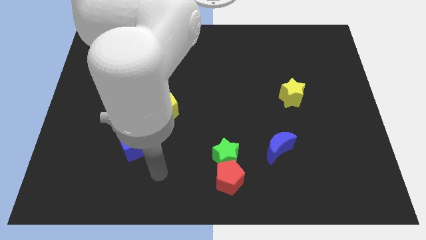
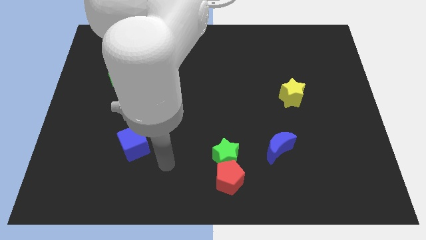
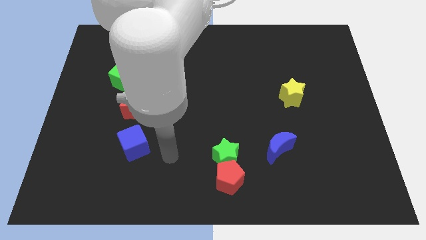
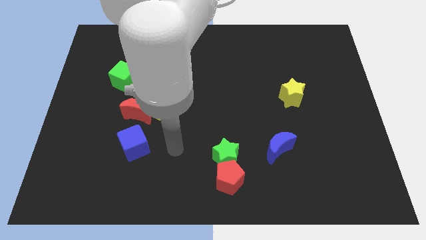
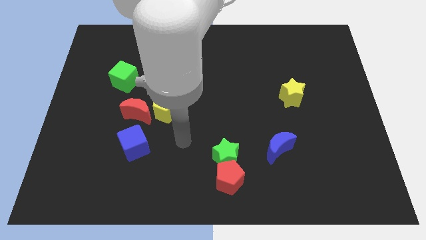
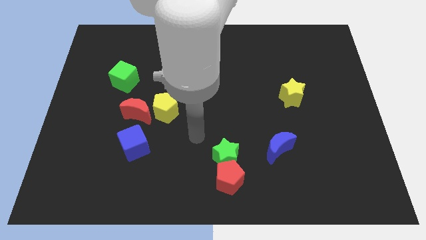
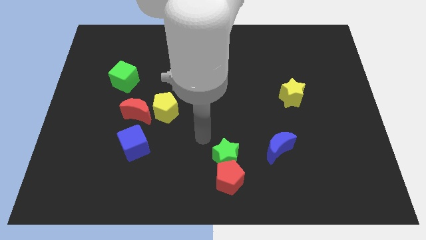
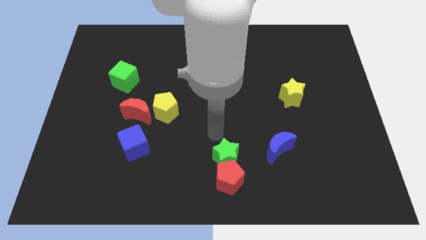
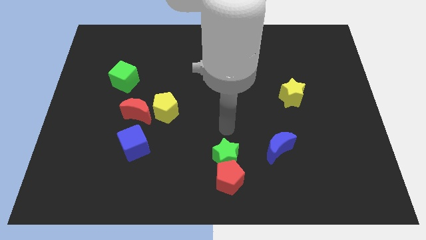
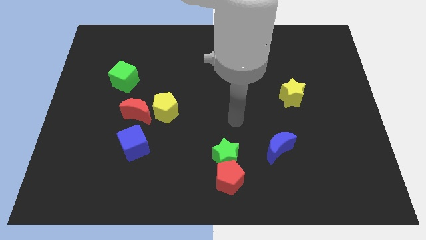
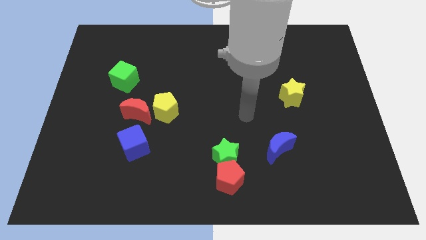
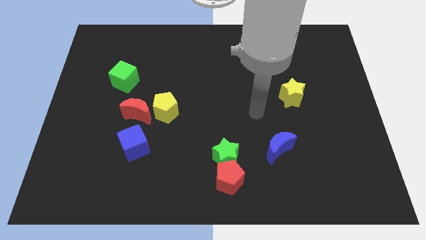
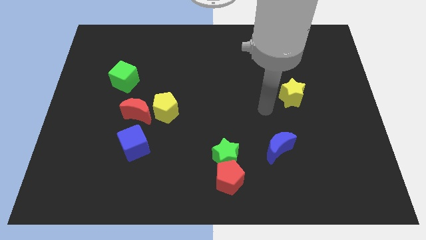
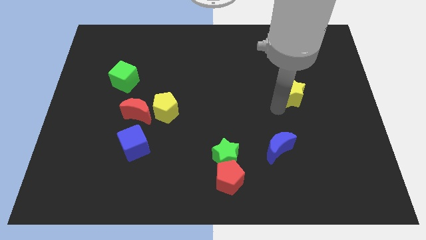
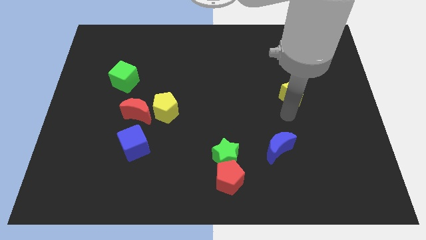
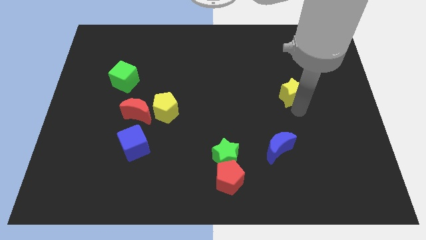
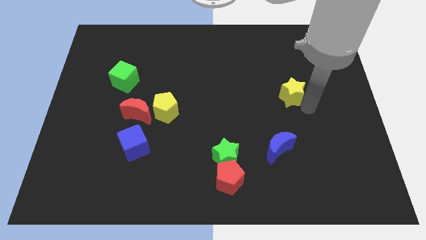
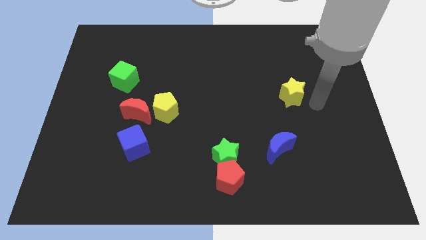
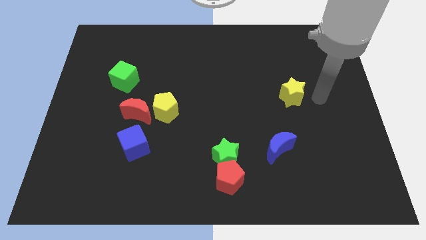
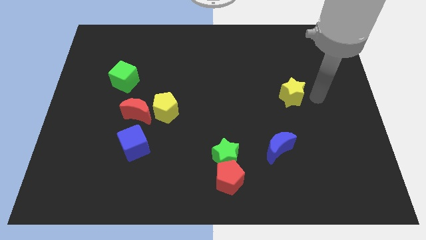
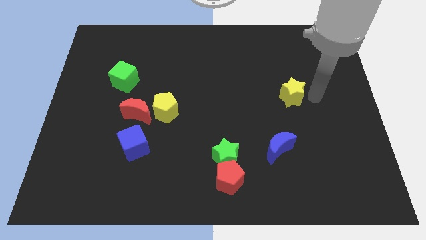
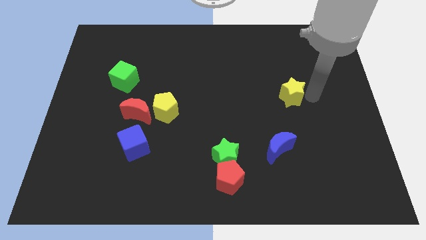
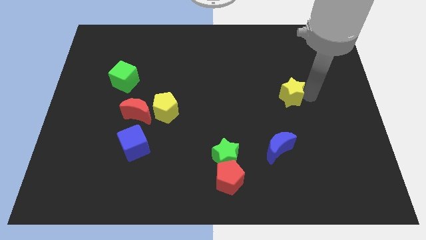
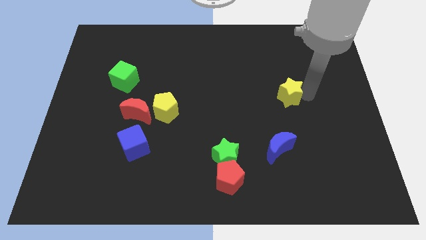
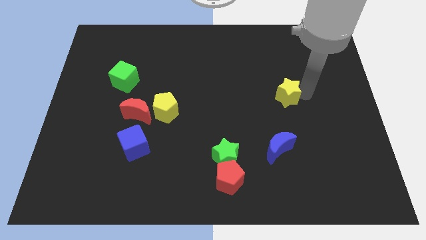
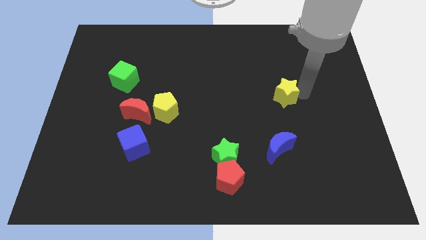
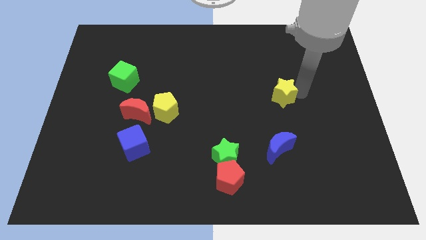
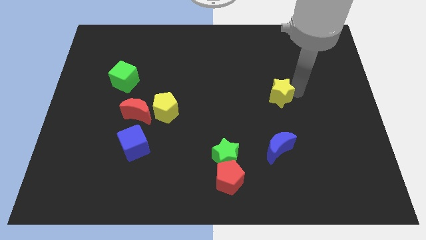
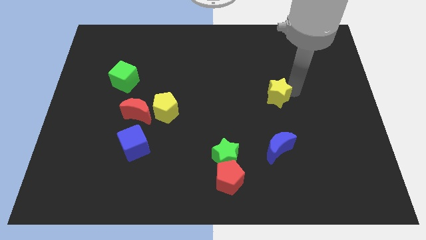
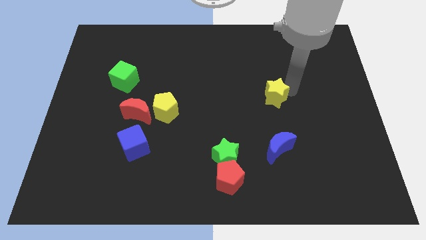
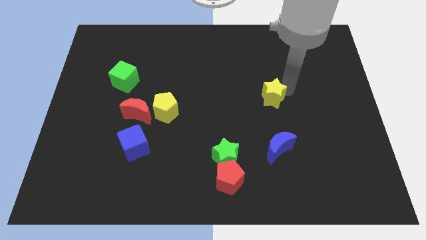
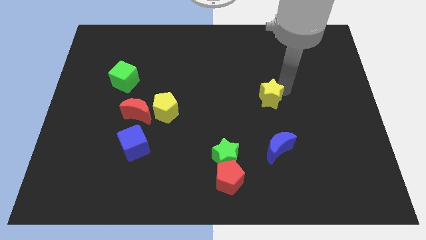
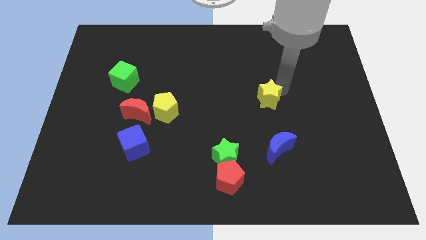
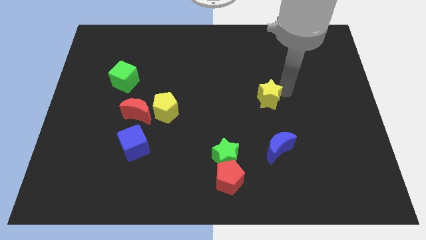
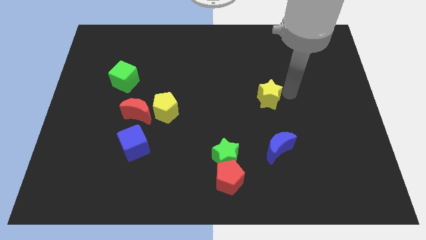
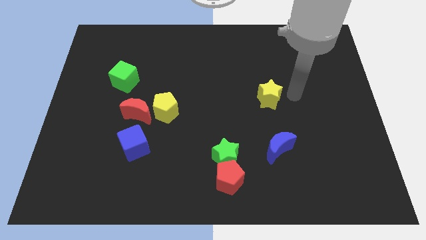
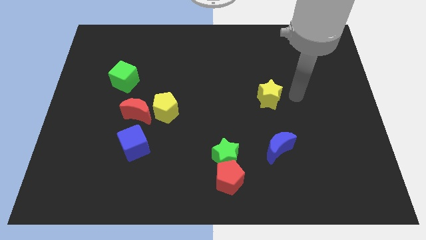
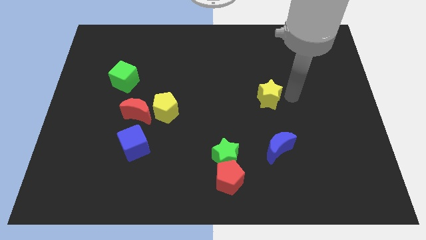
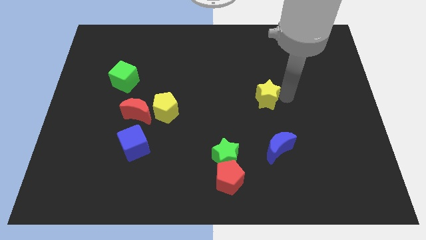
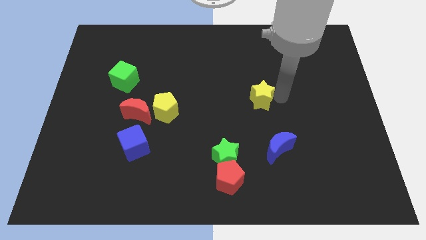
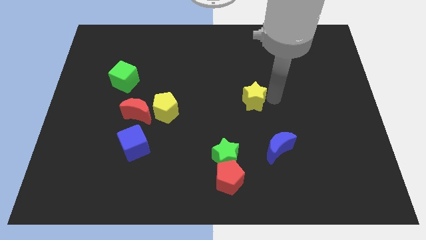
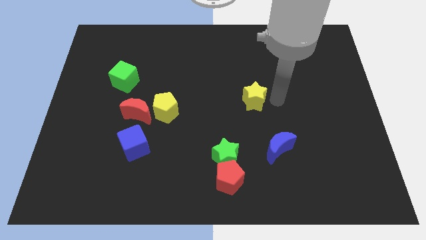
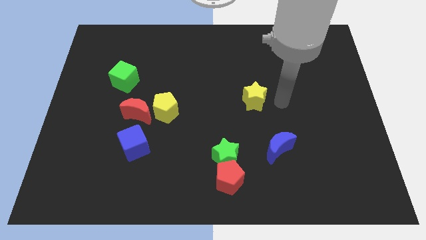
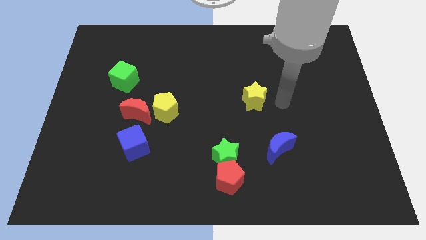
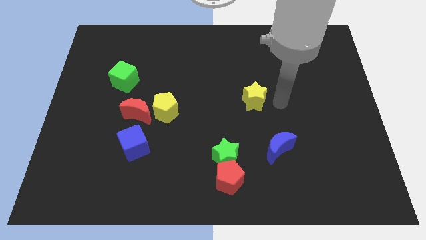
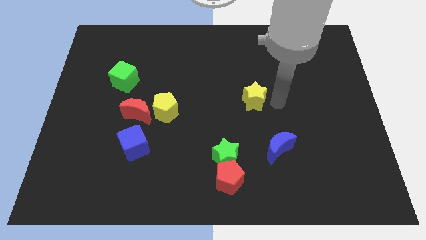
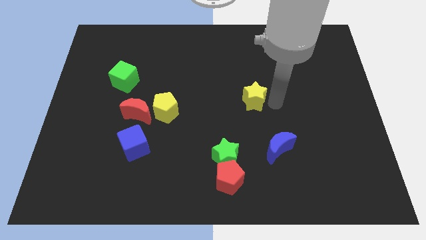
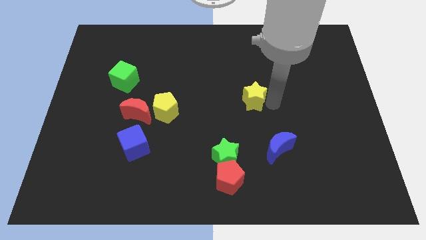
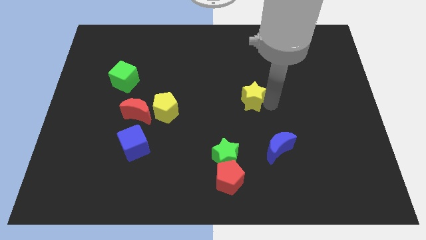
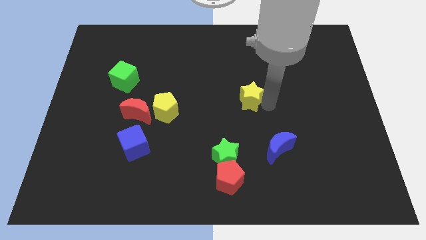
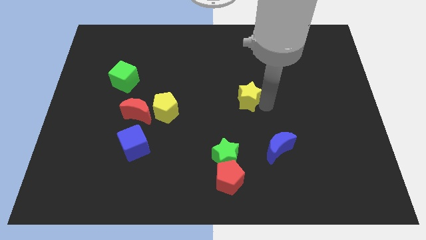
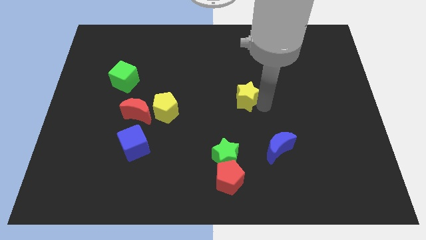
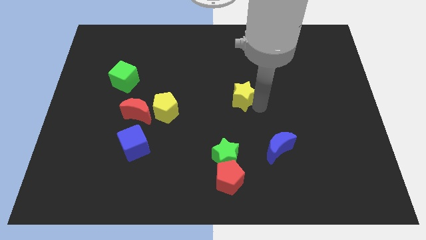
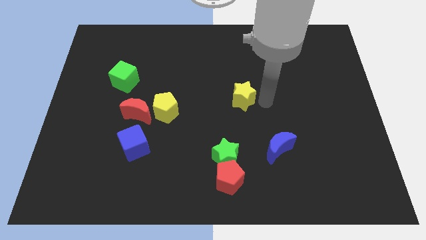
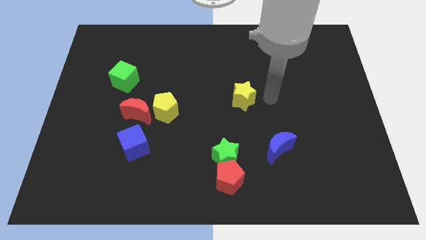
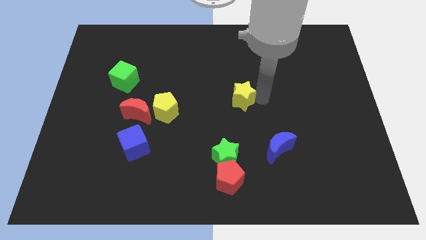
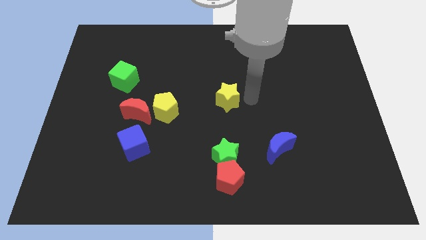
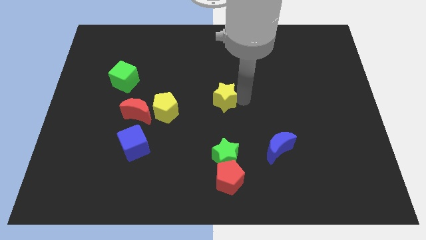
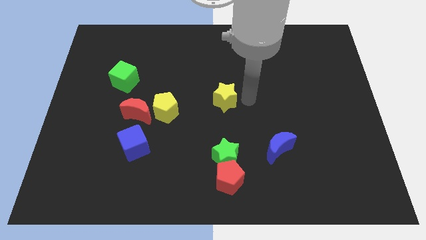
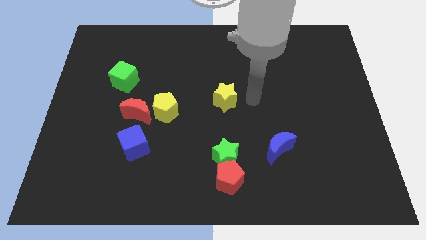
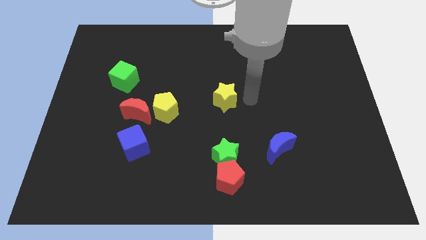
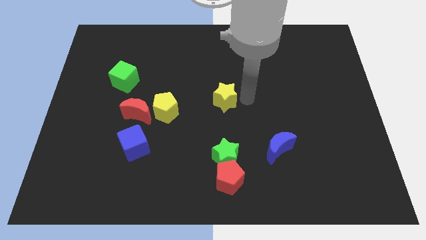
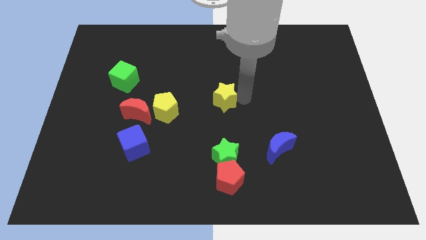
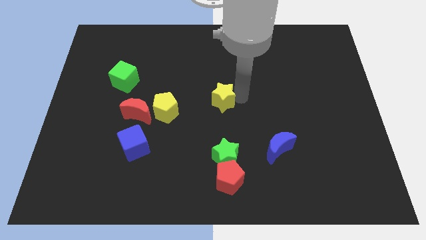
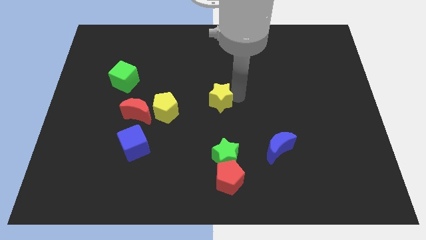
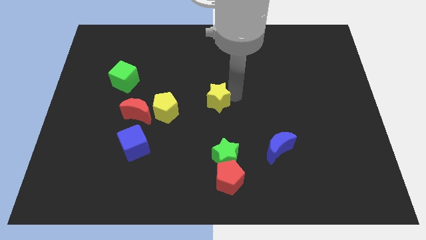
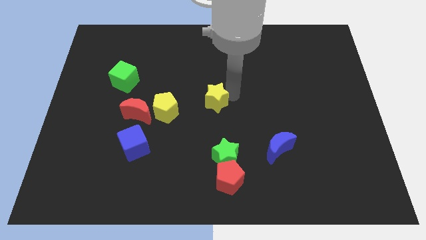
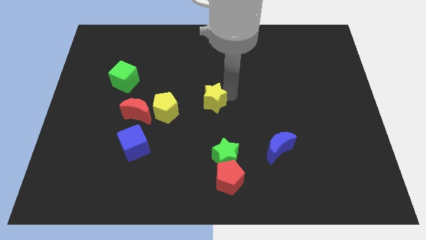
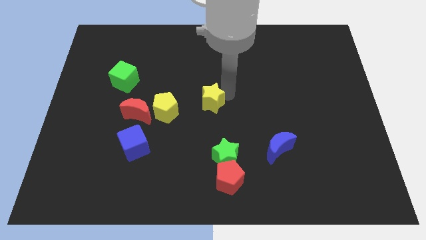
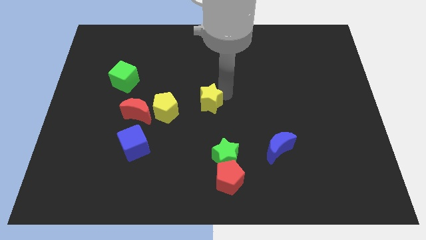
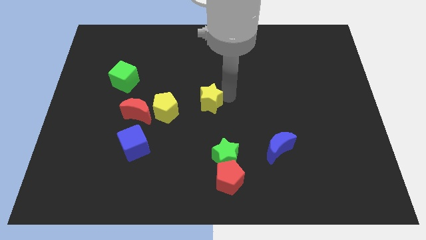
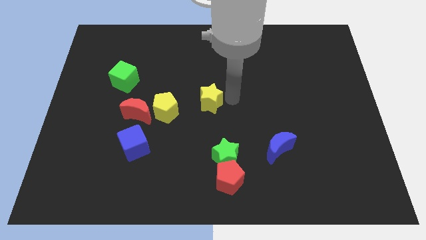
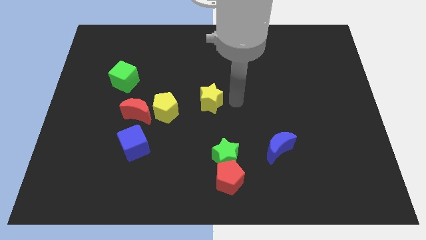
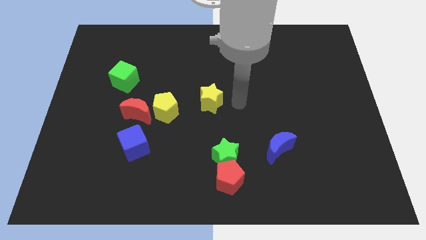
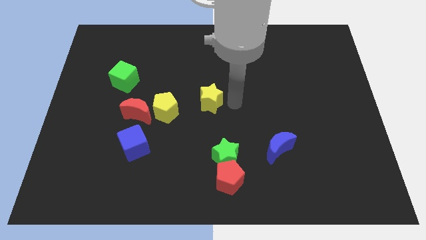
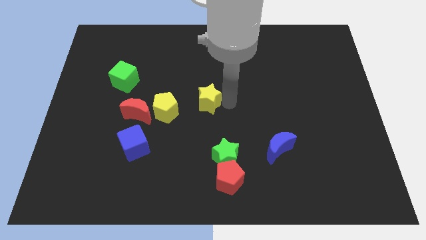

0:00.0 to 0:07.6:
push the yellow star left

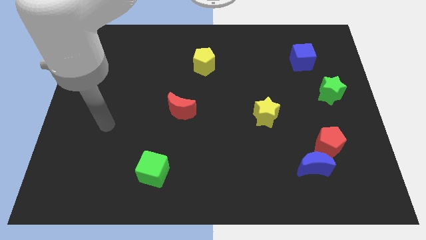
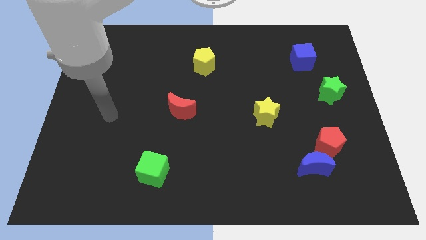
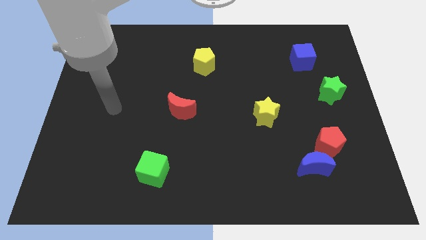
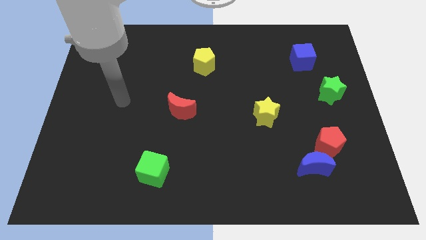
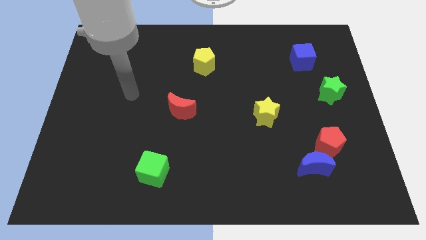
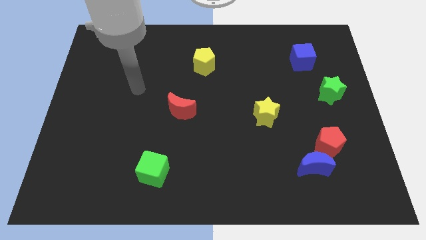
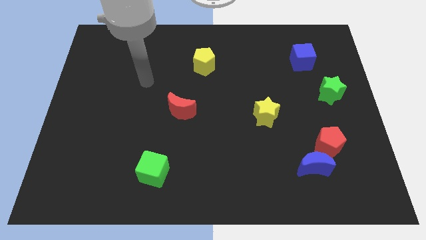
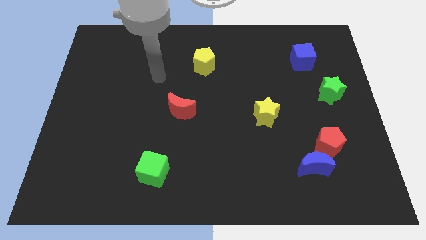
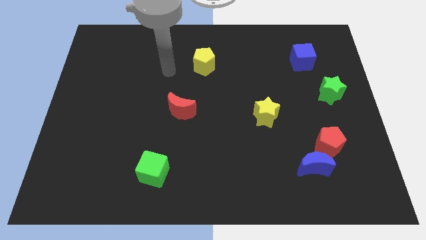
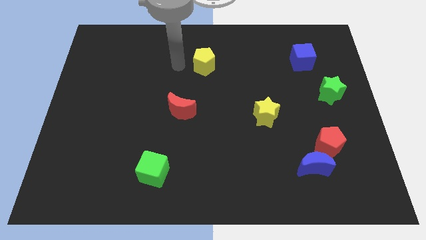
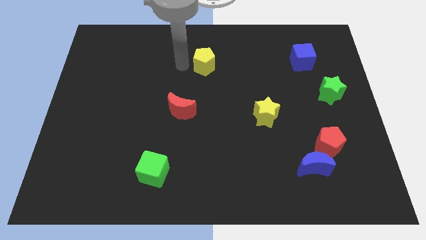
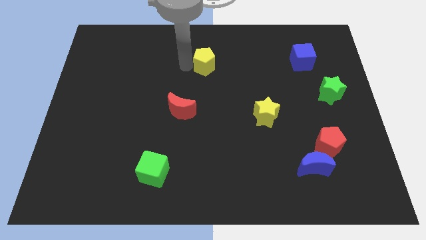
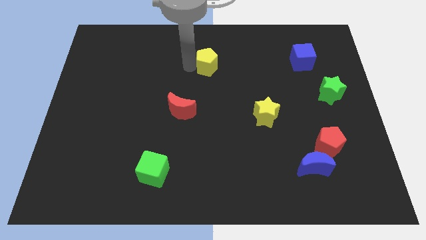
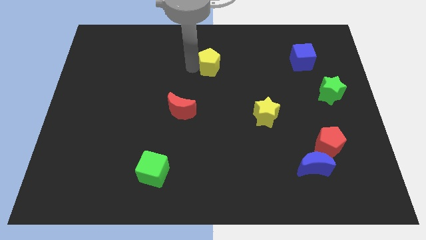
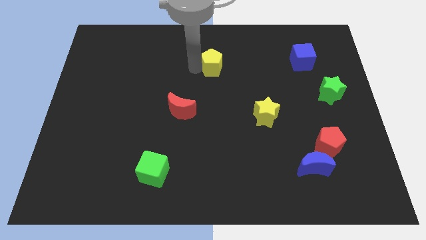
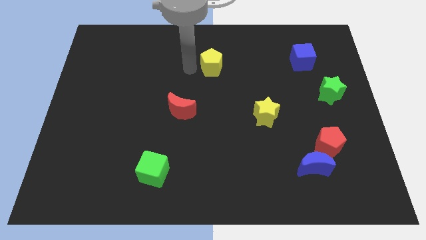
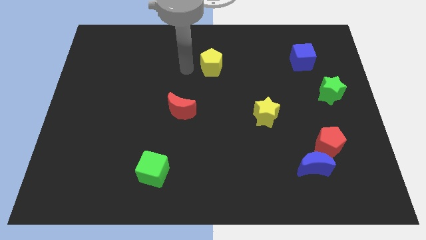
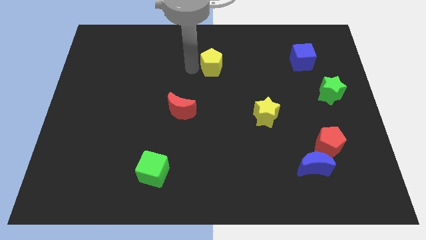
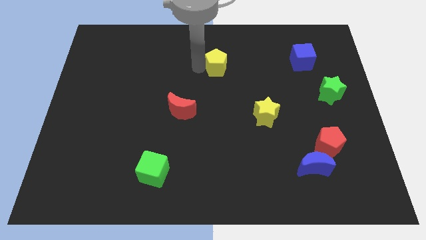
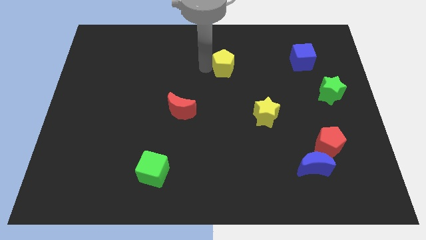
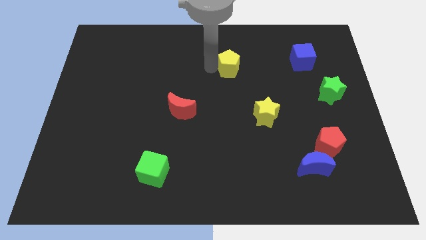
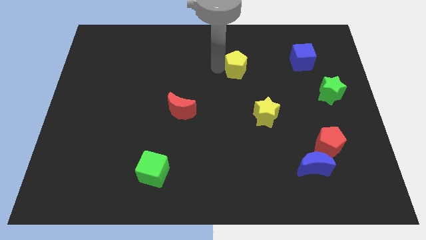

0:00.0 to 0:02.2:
slide the yellow pentagon right slightly
